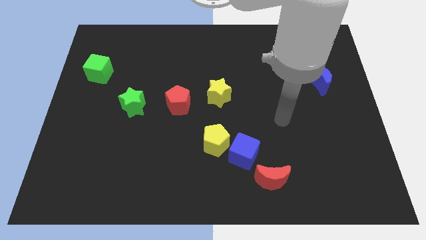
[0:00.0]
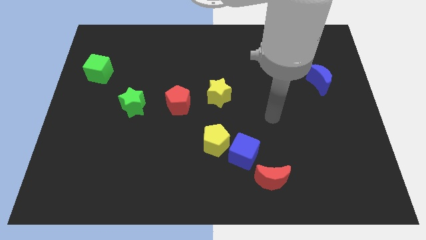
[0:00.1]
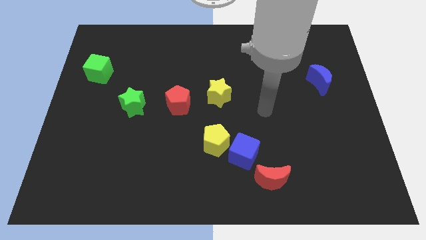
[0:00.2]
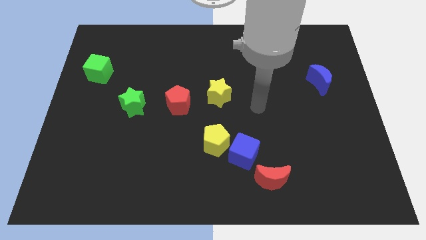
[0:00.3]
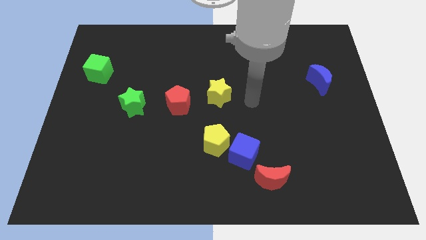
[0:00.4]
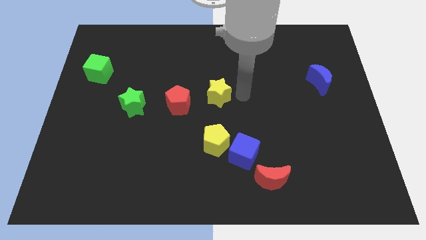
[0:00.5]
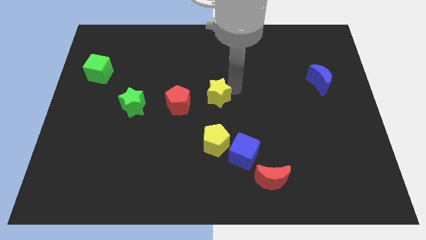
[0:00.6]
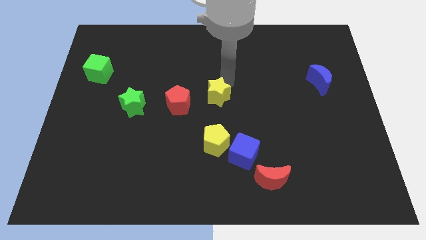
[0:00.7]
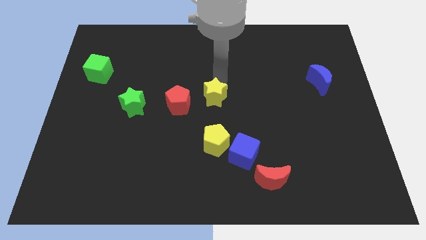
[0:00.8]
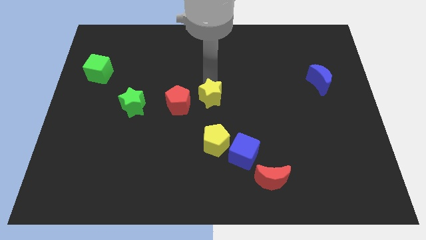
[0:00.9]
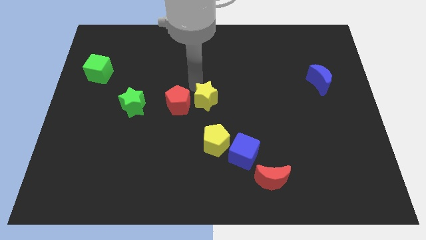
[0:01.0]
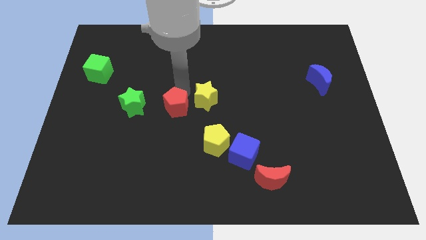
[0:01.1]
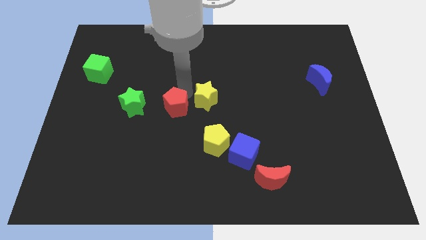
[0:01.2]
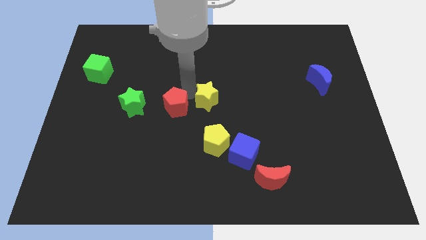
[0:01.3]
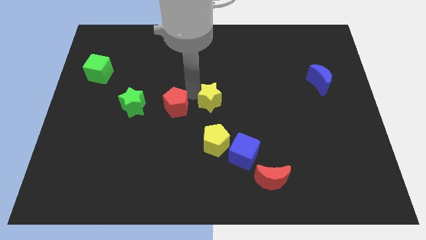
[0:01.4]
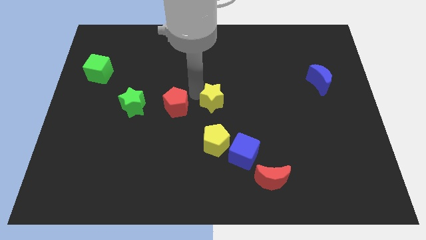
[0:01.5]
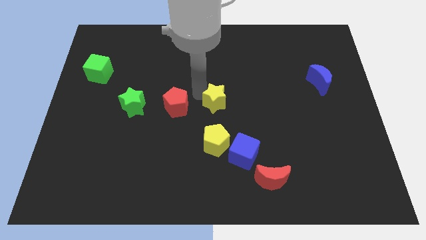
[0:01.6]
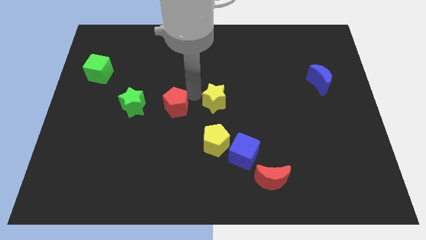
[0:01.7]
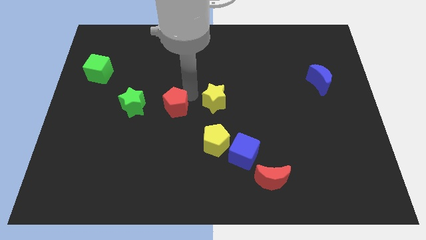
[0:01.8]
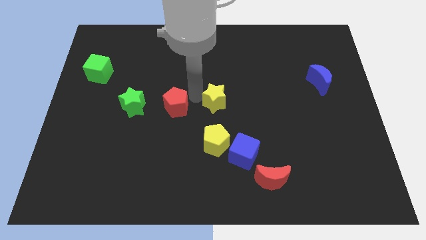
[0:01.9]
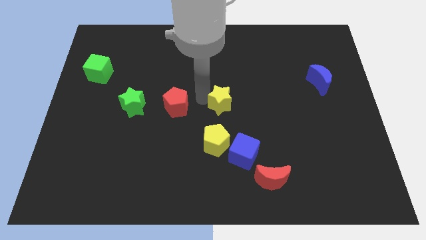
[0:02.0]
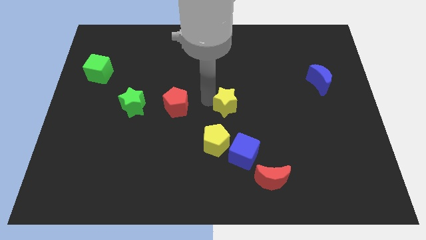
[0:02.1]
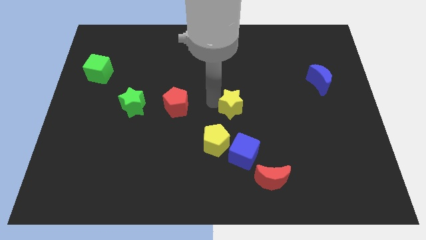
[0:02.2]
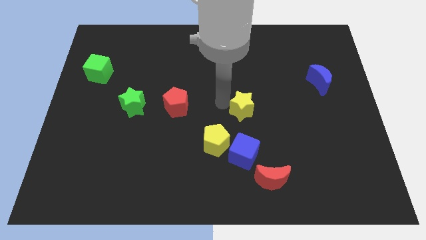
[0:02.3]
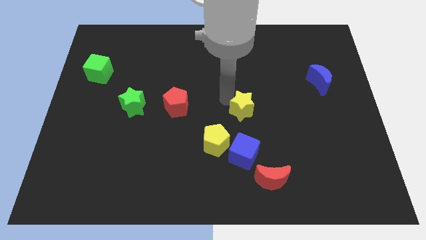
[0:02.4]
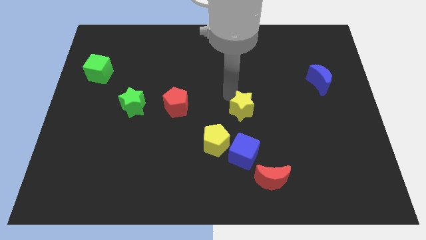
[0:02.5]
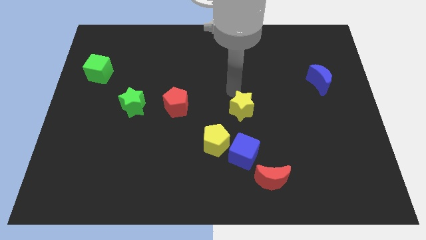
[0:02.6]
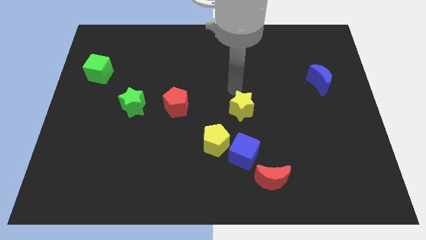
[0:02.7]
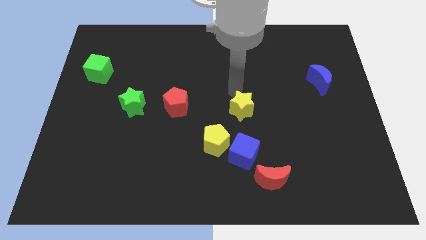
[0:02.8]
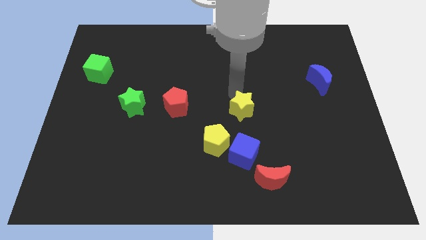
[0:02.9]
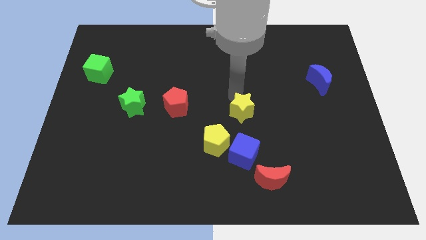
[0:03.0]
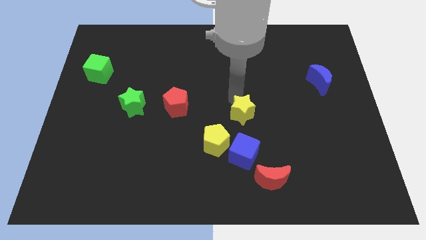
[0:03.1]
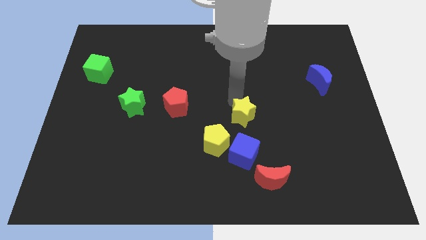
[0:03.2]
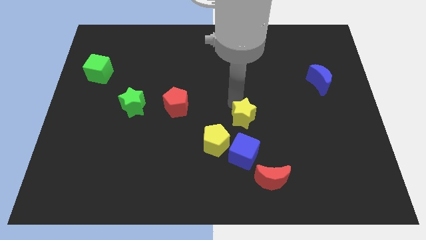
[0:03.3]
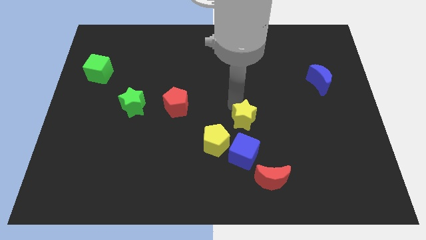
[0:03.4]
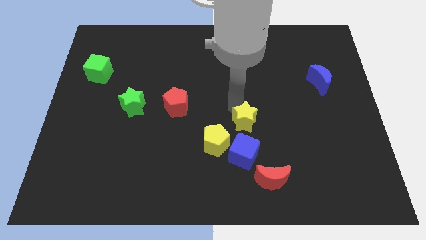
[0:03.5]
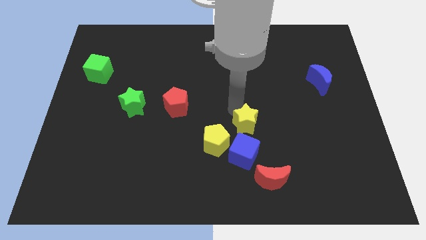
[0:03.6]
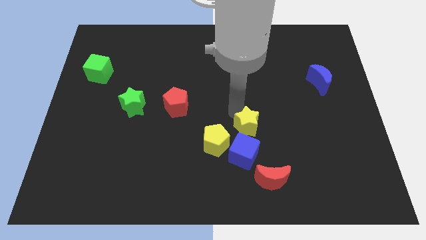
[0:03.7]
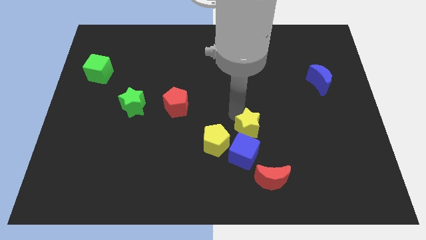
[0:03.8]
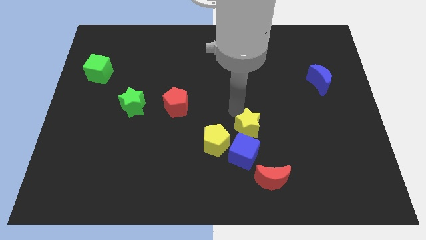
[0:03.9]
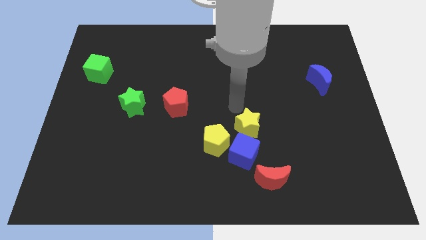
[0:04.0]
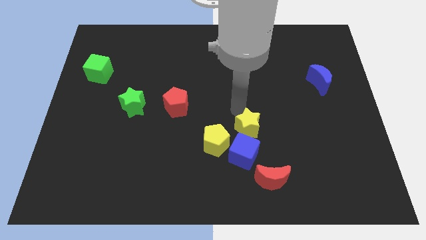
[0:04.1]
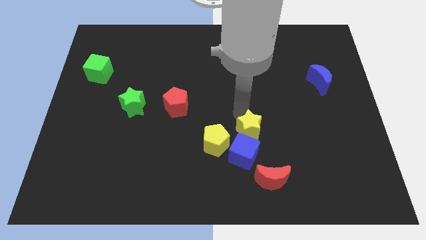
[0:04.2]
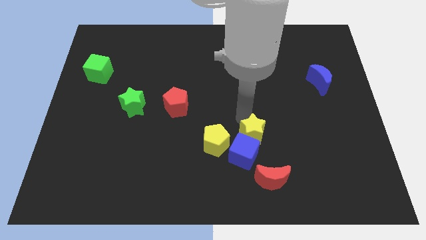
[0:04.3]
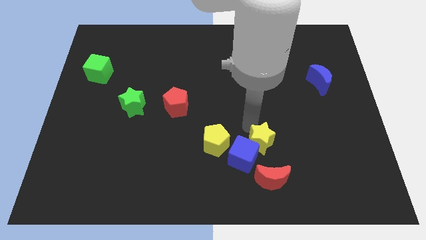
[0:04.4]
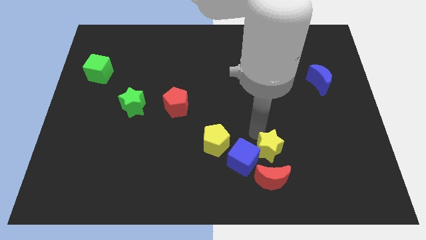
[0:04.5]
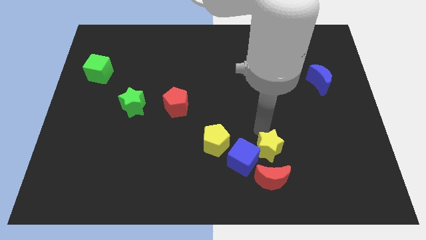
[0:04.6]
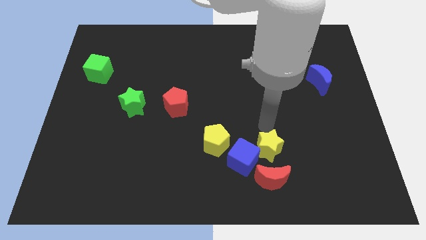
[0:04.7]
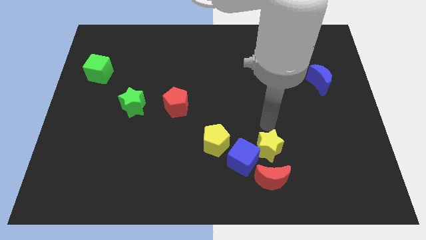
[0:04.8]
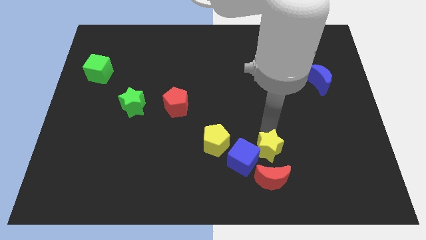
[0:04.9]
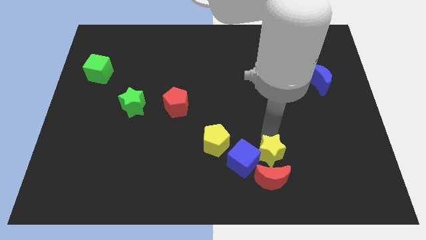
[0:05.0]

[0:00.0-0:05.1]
slide the yellow star to the red moon

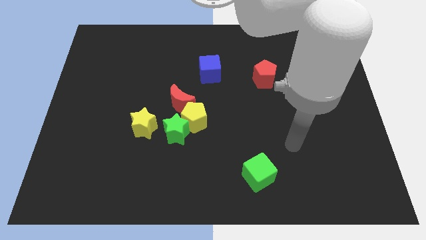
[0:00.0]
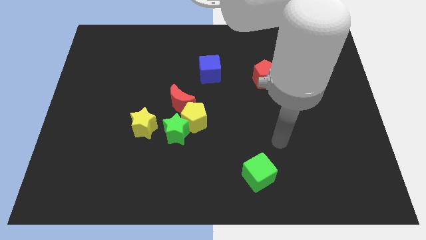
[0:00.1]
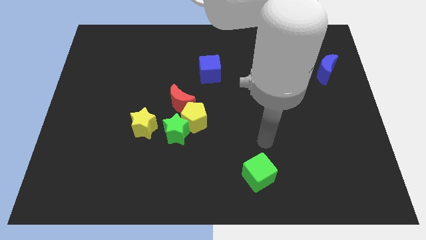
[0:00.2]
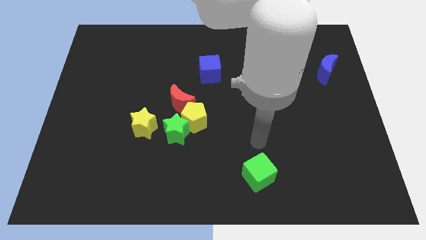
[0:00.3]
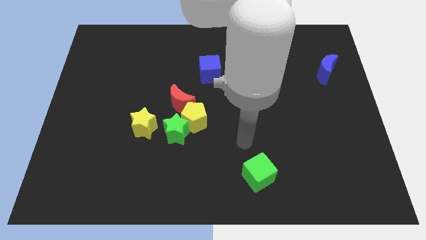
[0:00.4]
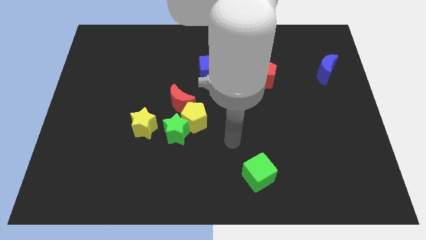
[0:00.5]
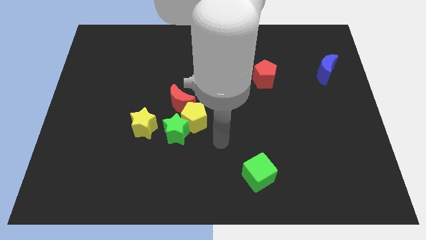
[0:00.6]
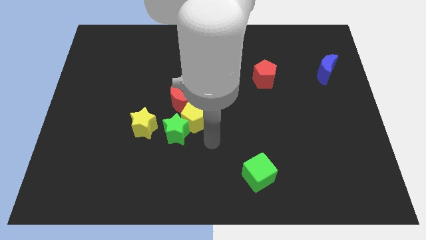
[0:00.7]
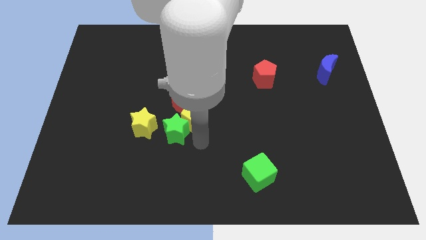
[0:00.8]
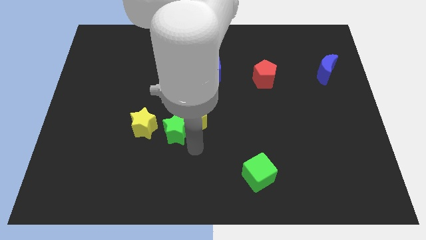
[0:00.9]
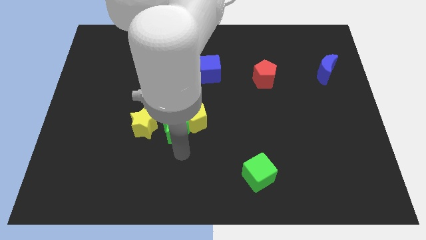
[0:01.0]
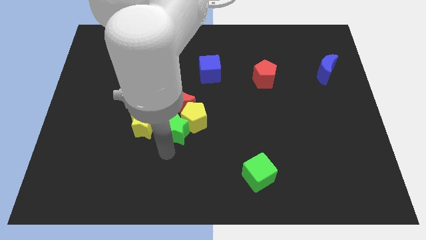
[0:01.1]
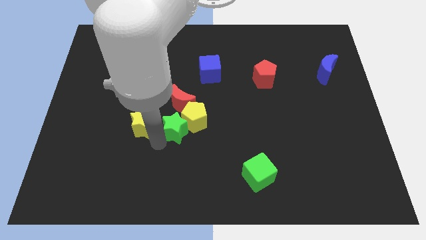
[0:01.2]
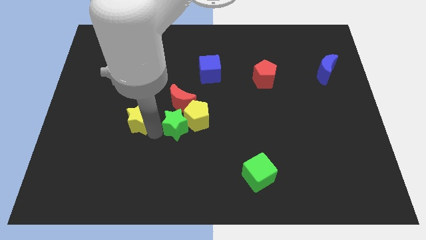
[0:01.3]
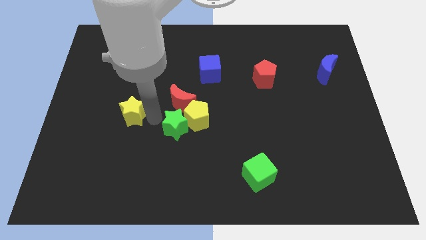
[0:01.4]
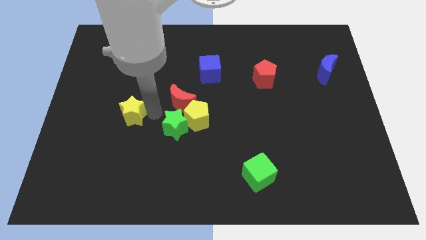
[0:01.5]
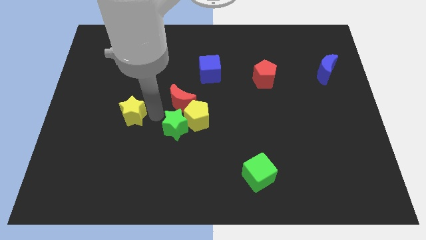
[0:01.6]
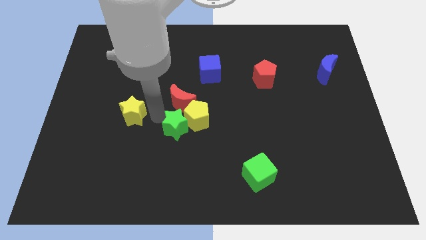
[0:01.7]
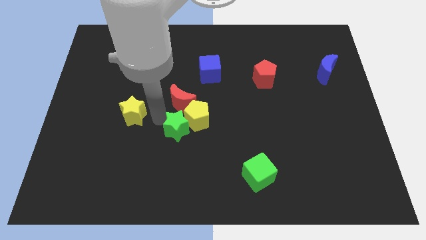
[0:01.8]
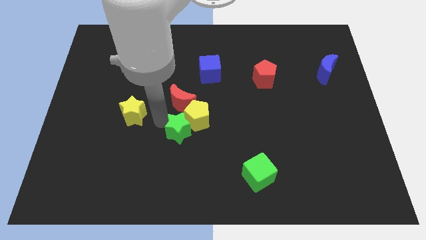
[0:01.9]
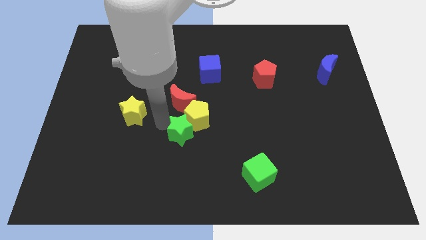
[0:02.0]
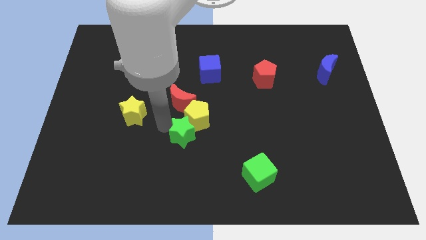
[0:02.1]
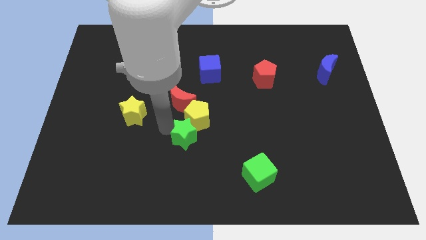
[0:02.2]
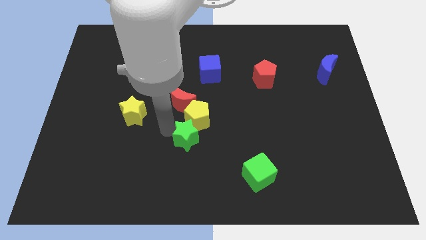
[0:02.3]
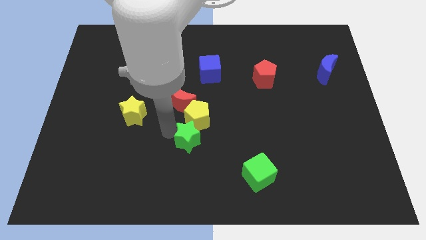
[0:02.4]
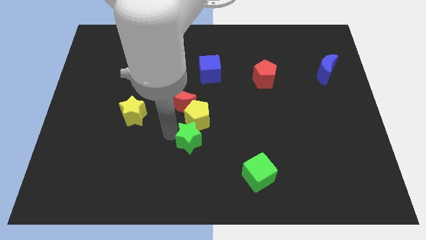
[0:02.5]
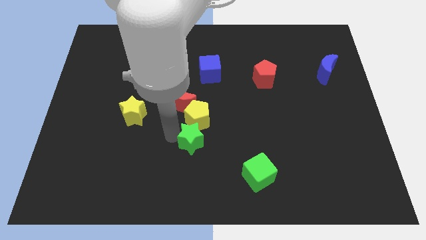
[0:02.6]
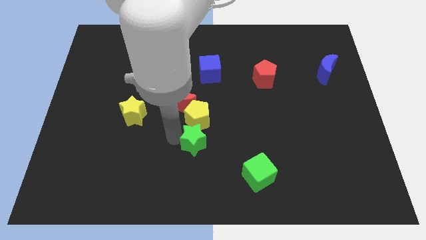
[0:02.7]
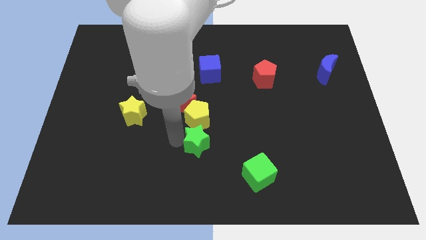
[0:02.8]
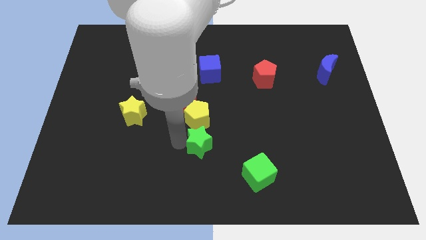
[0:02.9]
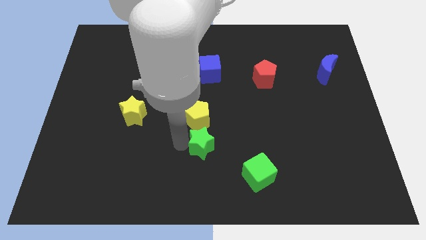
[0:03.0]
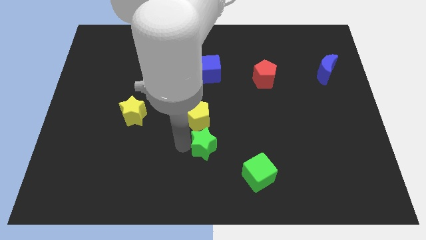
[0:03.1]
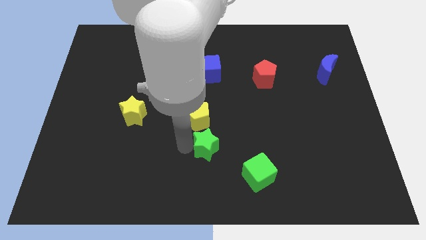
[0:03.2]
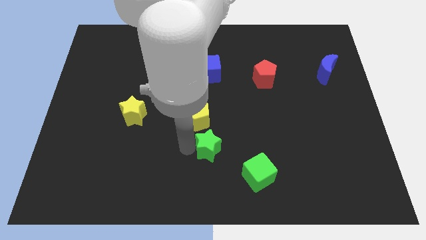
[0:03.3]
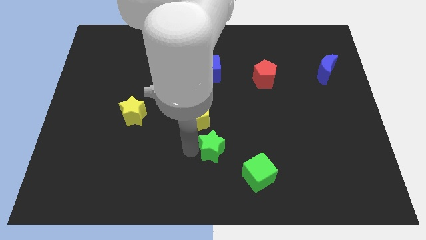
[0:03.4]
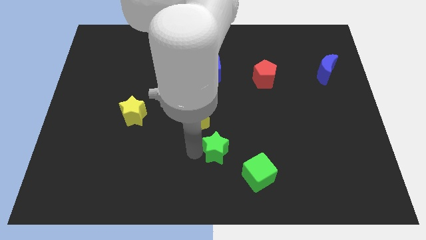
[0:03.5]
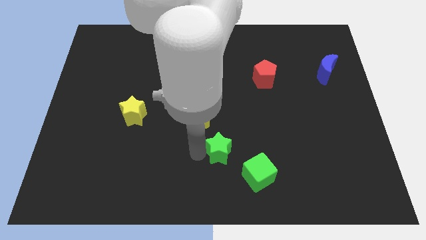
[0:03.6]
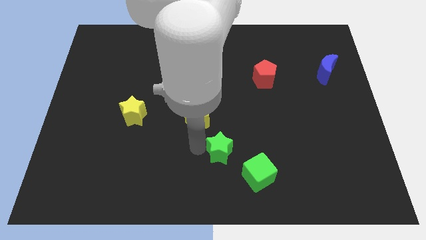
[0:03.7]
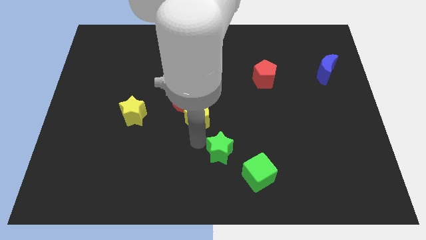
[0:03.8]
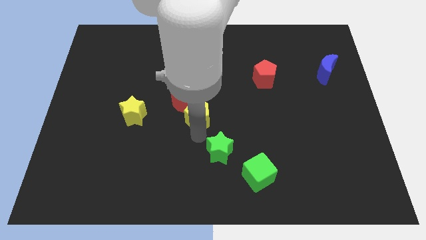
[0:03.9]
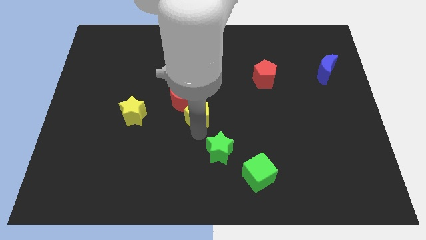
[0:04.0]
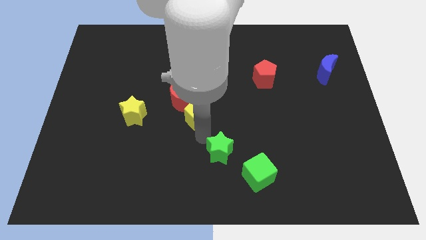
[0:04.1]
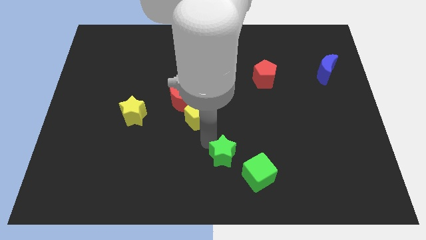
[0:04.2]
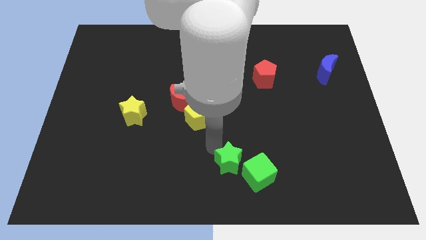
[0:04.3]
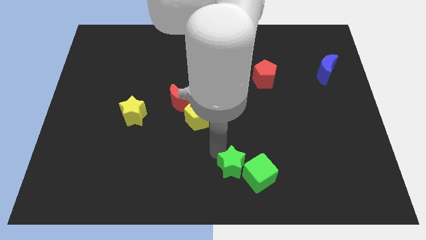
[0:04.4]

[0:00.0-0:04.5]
slide the green star to the green cube
